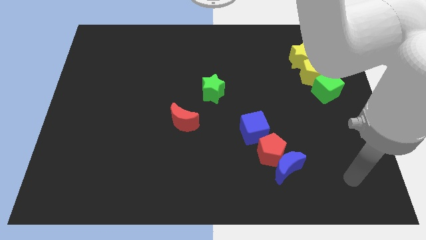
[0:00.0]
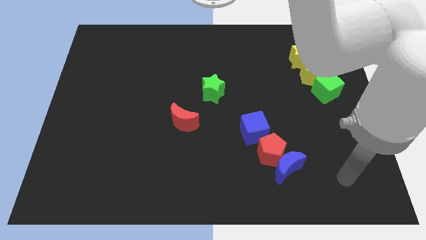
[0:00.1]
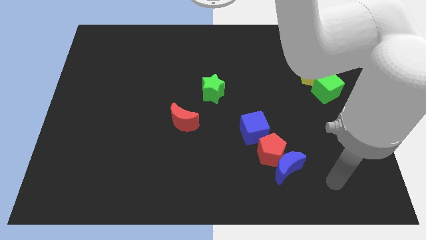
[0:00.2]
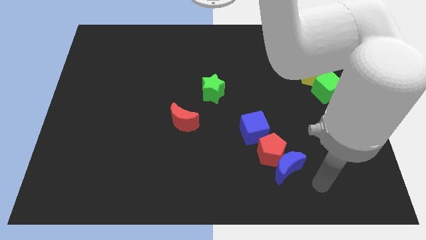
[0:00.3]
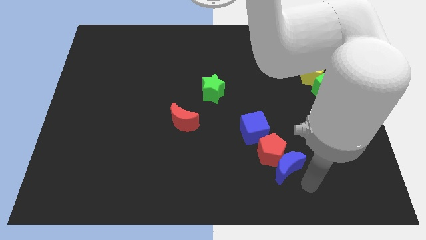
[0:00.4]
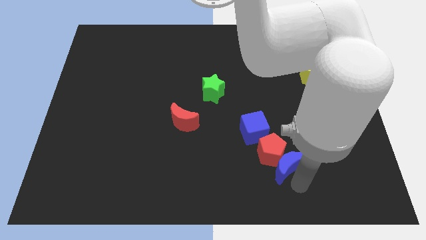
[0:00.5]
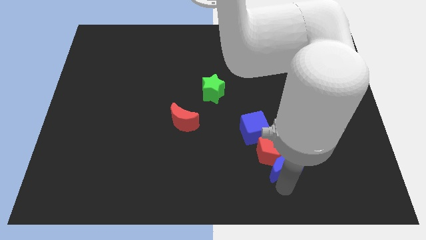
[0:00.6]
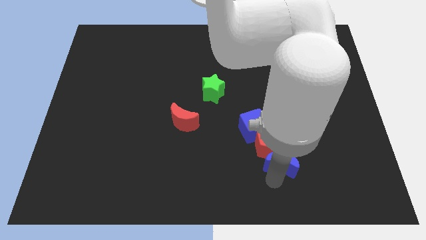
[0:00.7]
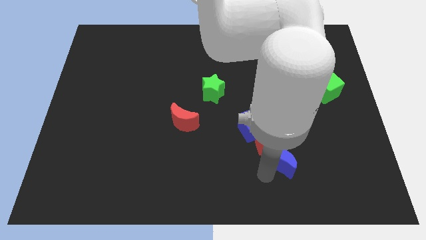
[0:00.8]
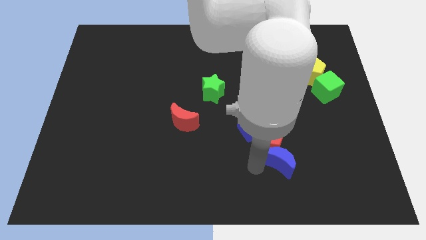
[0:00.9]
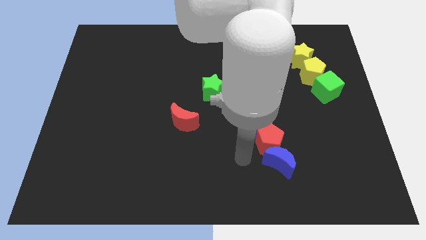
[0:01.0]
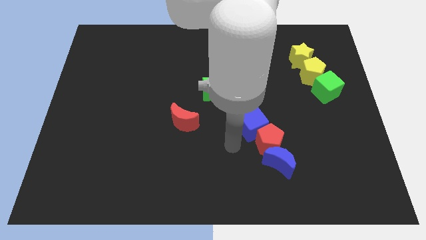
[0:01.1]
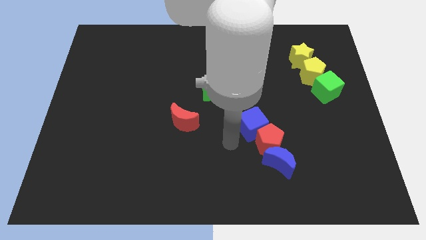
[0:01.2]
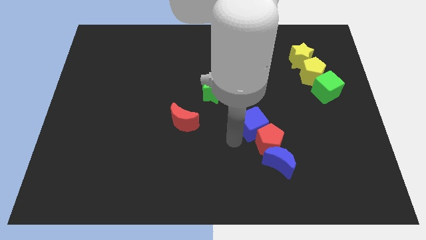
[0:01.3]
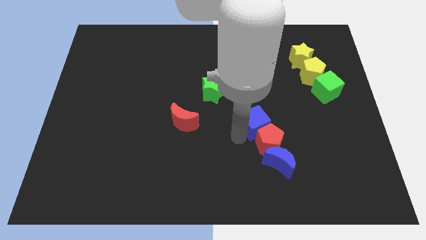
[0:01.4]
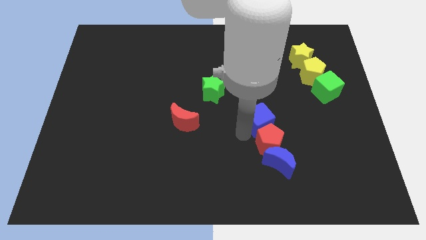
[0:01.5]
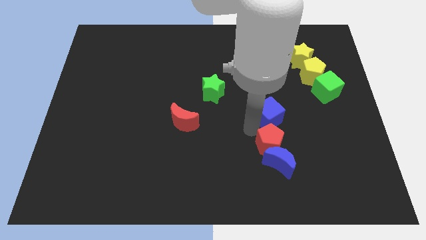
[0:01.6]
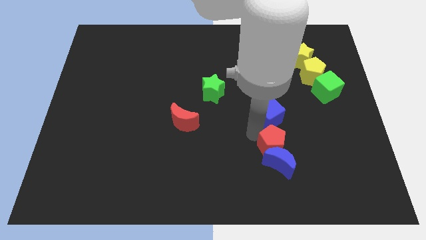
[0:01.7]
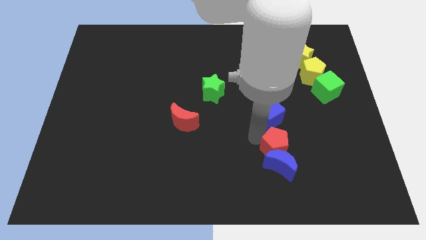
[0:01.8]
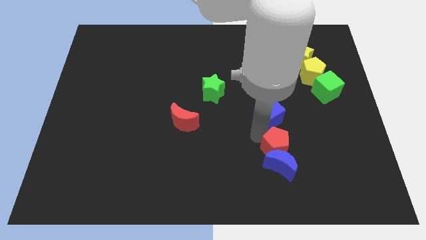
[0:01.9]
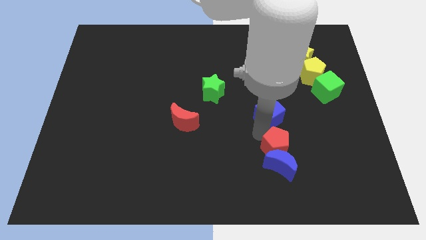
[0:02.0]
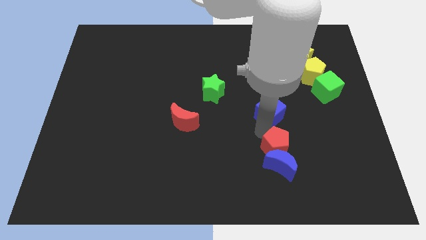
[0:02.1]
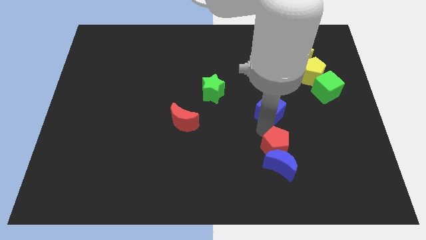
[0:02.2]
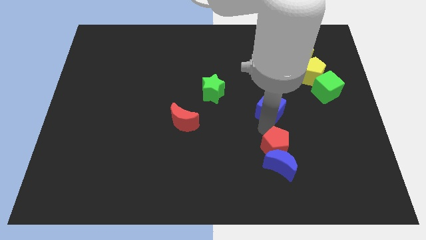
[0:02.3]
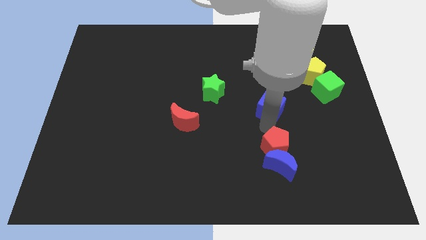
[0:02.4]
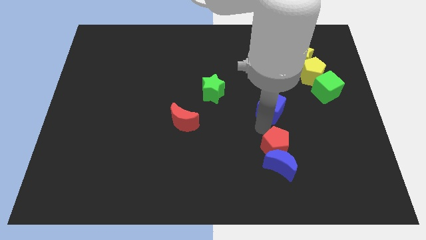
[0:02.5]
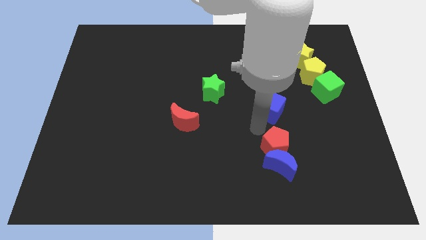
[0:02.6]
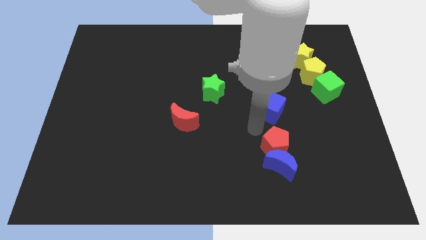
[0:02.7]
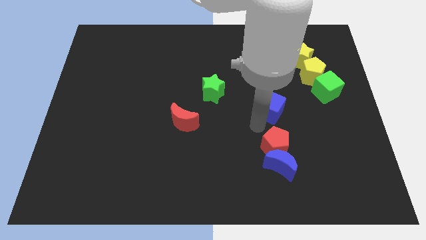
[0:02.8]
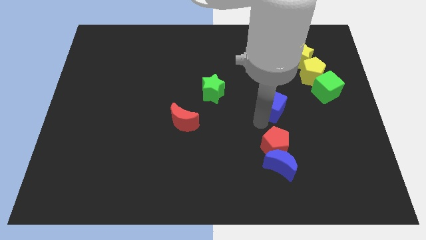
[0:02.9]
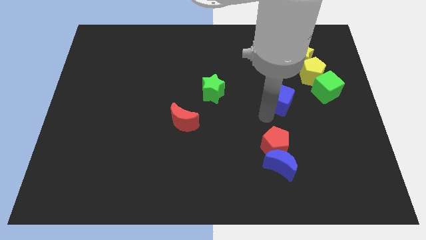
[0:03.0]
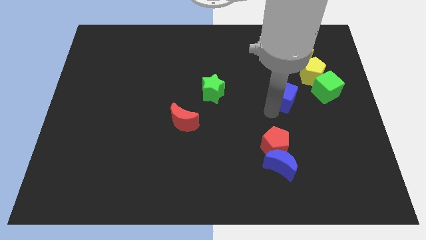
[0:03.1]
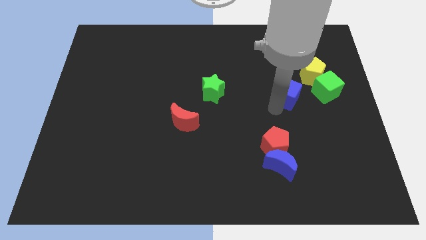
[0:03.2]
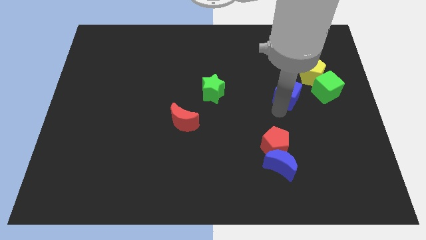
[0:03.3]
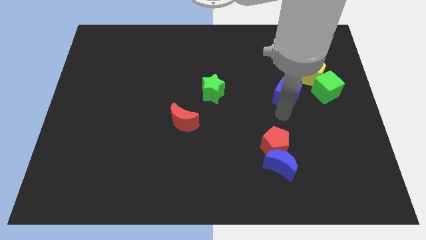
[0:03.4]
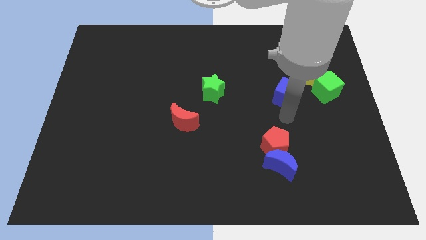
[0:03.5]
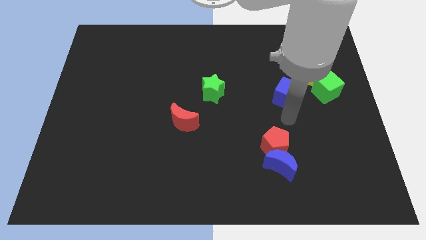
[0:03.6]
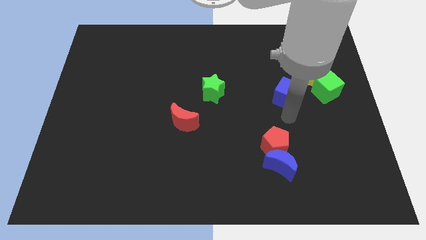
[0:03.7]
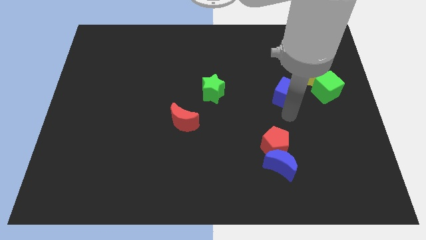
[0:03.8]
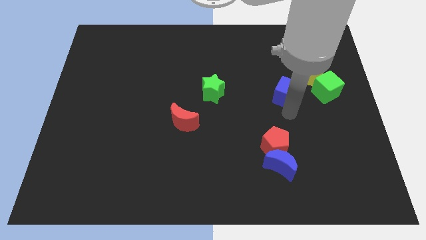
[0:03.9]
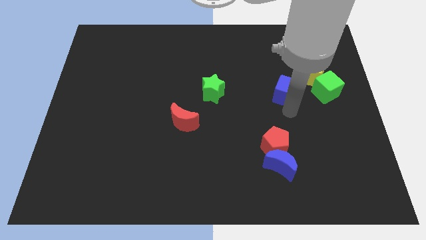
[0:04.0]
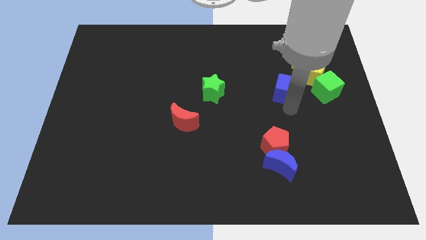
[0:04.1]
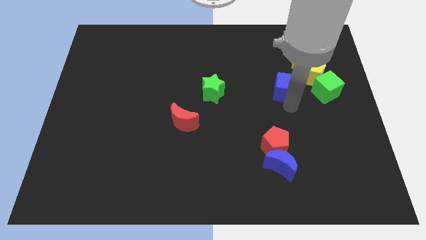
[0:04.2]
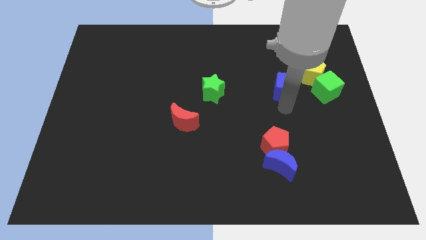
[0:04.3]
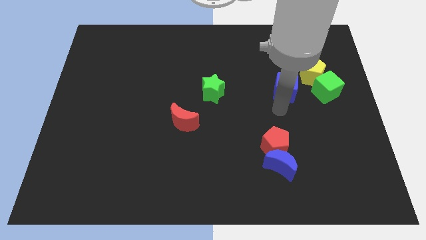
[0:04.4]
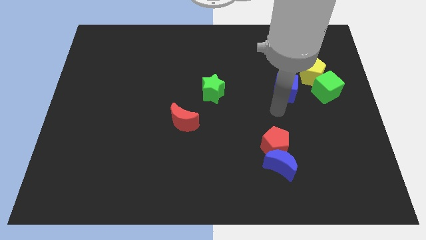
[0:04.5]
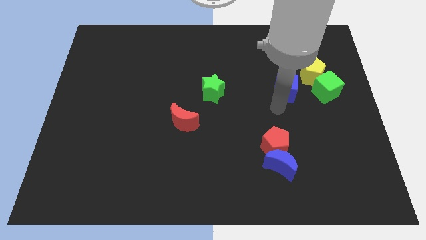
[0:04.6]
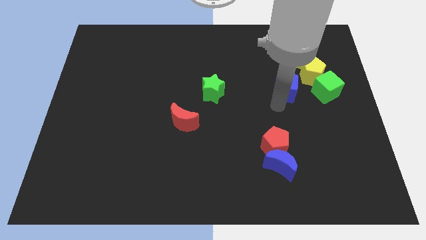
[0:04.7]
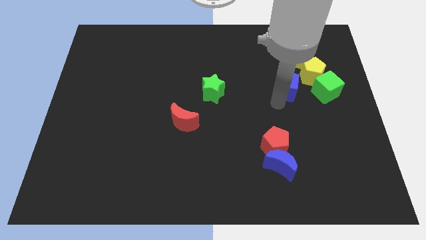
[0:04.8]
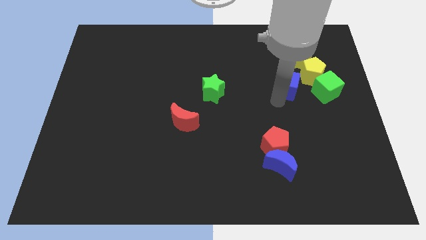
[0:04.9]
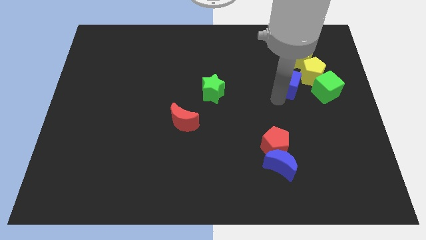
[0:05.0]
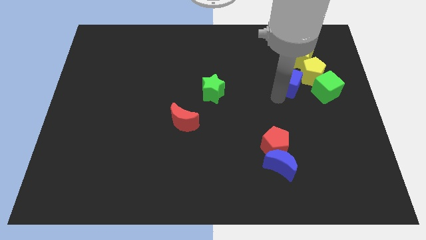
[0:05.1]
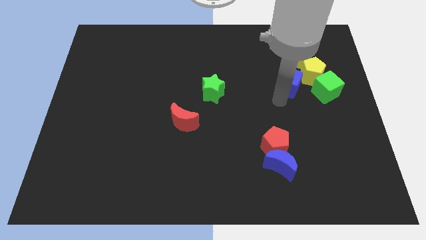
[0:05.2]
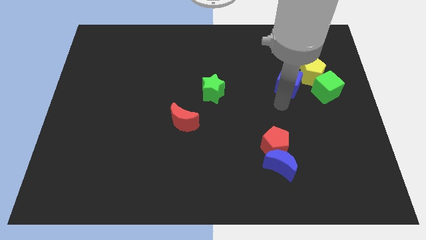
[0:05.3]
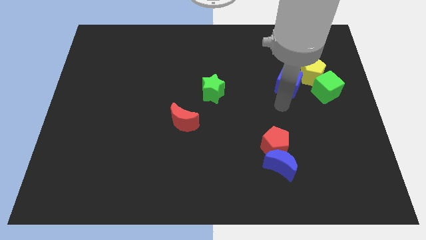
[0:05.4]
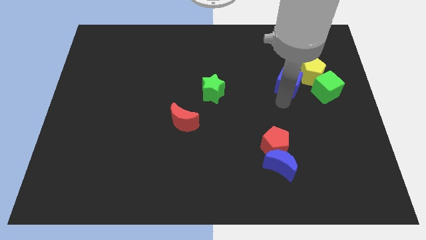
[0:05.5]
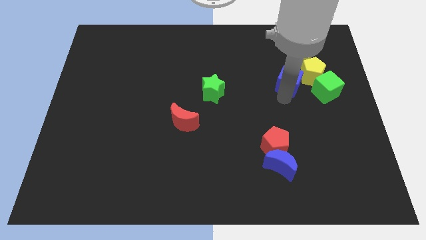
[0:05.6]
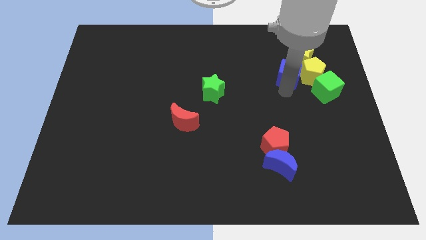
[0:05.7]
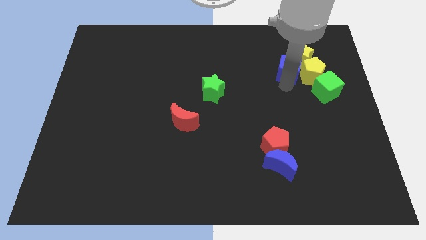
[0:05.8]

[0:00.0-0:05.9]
push the blue cube to the yellow star

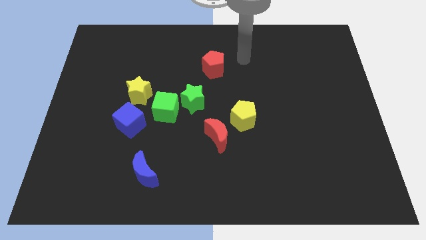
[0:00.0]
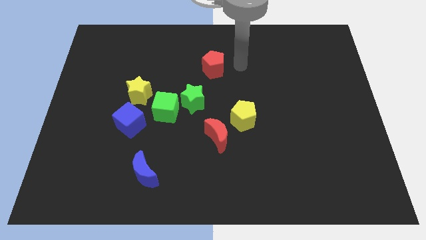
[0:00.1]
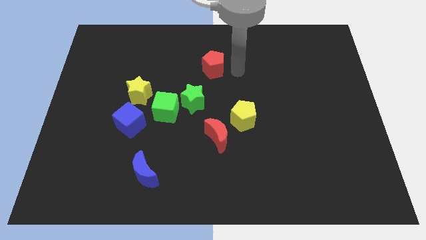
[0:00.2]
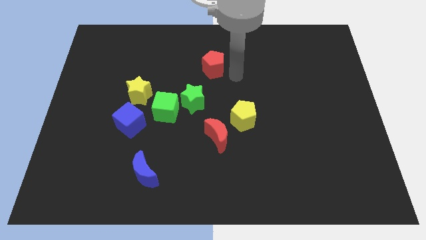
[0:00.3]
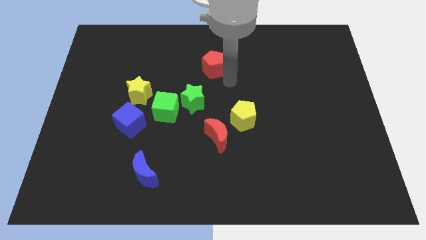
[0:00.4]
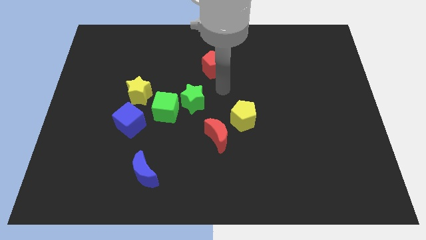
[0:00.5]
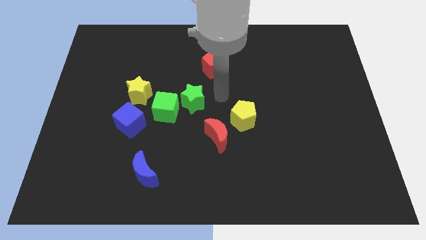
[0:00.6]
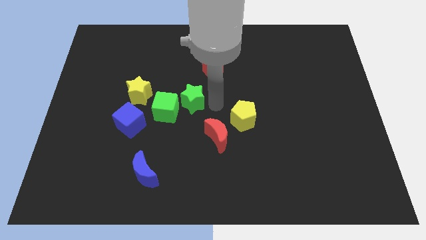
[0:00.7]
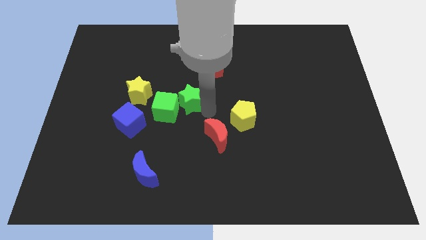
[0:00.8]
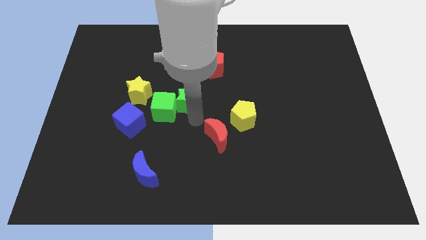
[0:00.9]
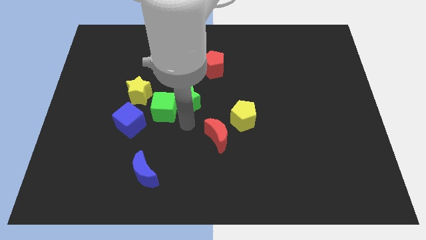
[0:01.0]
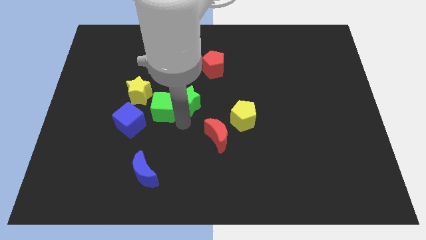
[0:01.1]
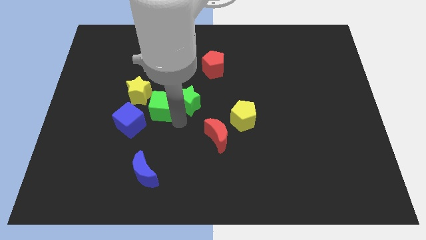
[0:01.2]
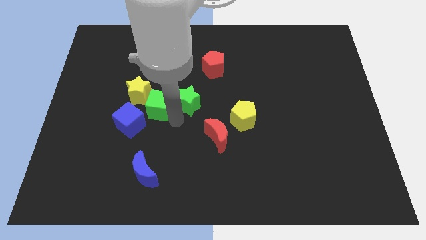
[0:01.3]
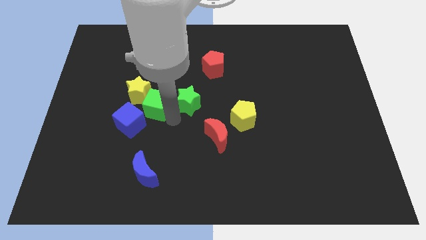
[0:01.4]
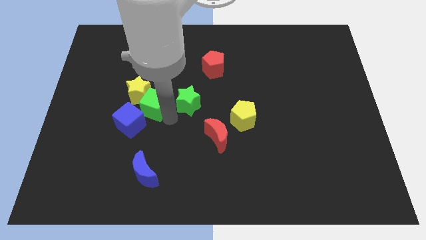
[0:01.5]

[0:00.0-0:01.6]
slide the green cube next to the yellow star
